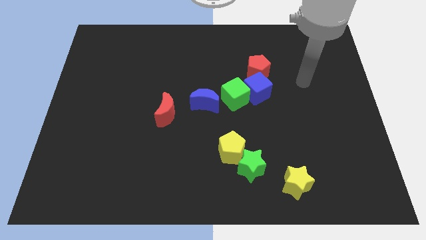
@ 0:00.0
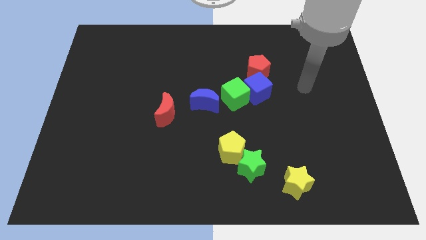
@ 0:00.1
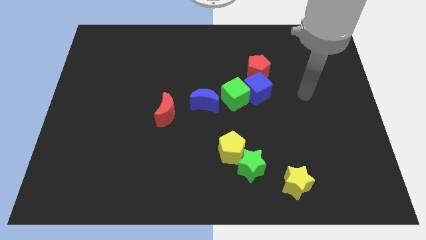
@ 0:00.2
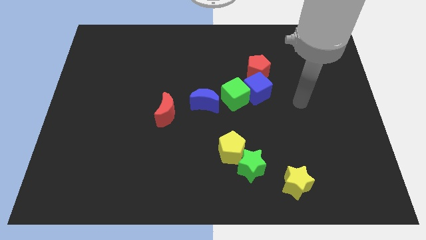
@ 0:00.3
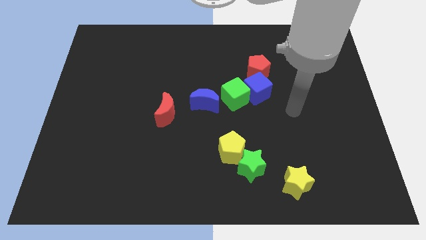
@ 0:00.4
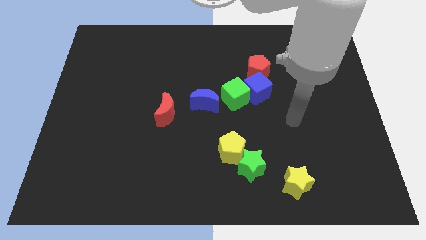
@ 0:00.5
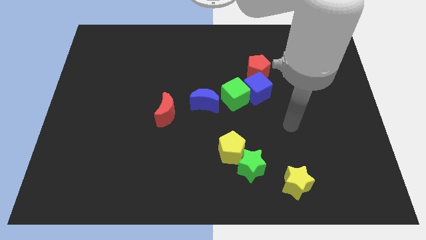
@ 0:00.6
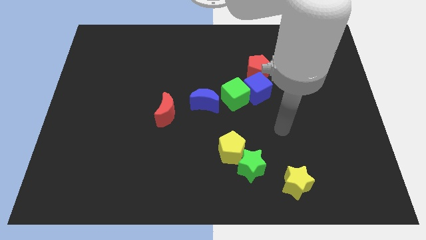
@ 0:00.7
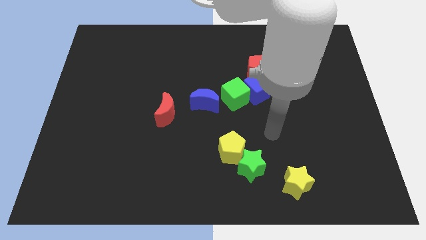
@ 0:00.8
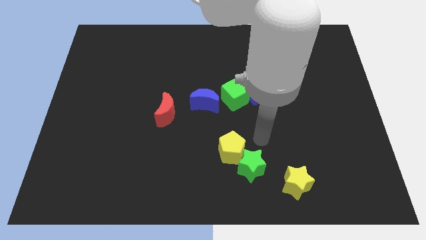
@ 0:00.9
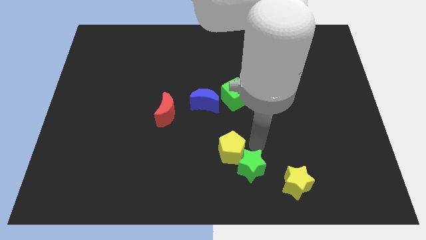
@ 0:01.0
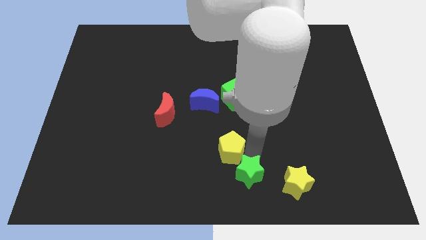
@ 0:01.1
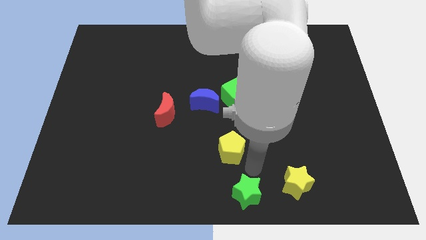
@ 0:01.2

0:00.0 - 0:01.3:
pull the yellow pentagon apart from the green star

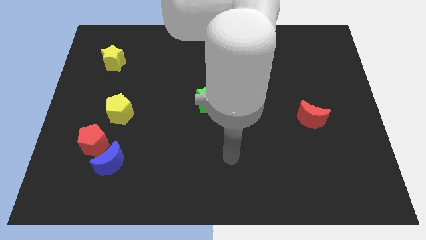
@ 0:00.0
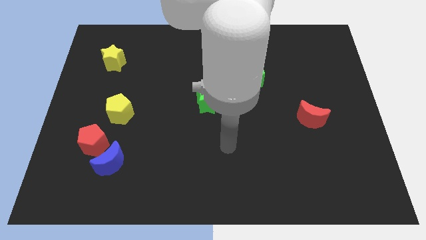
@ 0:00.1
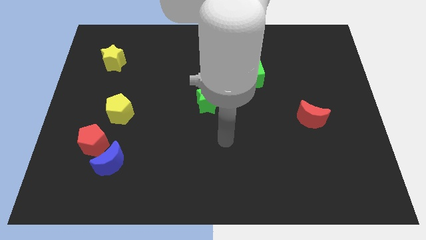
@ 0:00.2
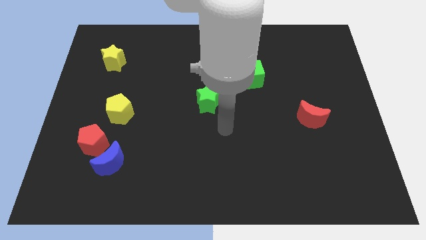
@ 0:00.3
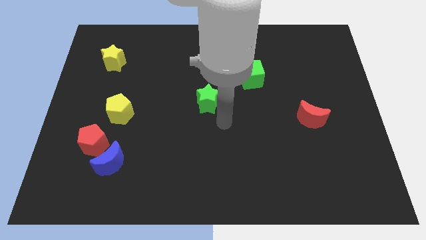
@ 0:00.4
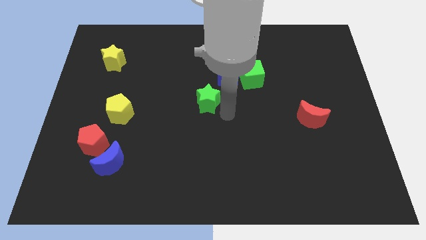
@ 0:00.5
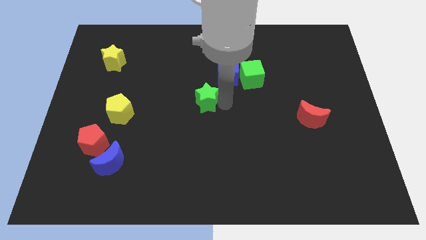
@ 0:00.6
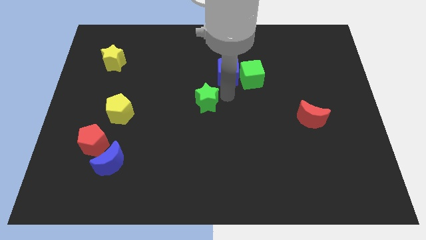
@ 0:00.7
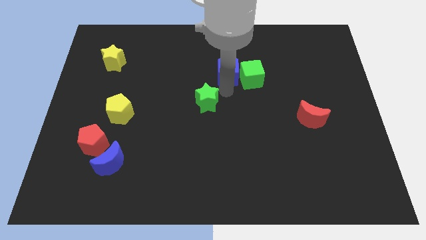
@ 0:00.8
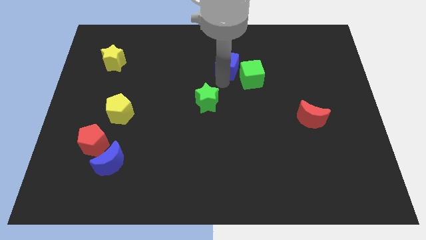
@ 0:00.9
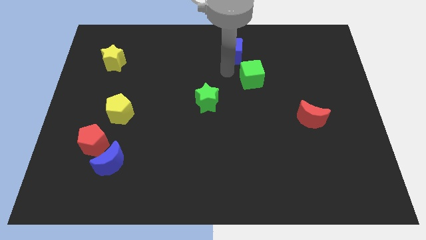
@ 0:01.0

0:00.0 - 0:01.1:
separate the green cube from the blue cube

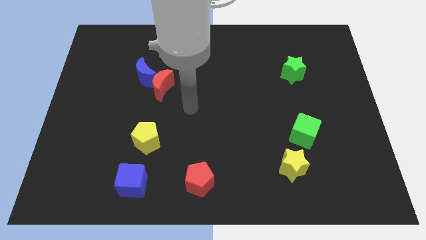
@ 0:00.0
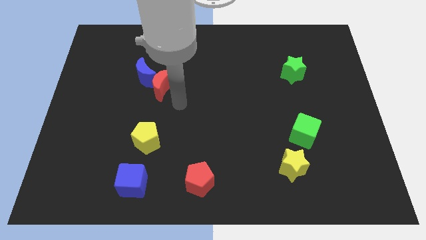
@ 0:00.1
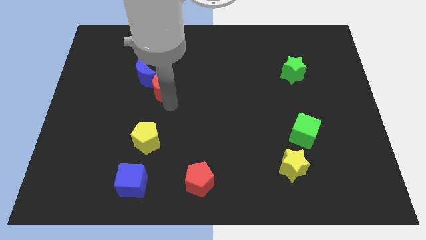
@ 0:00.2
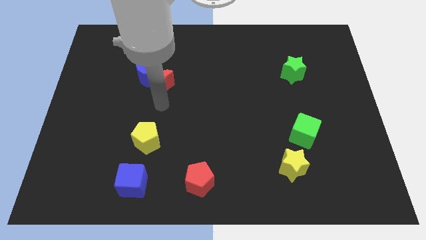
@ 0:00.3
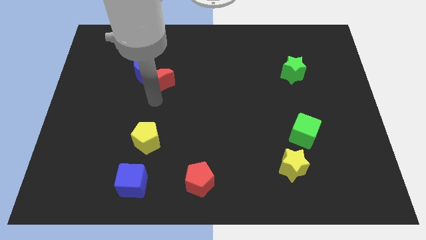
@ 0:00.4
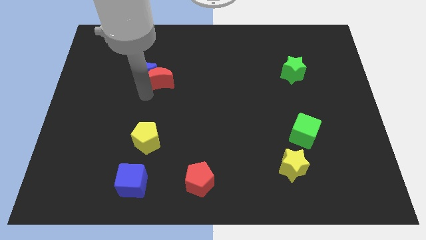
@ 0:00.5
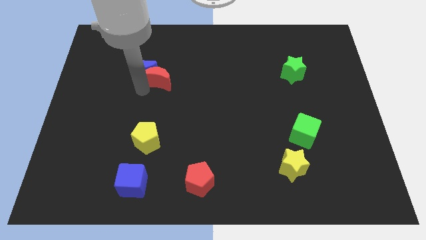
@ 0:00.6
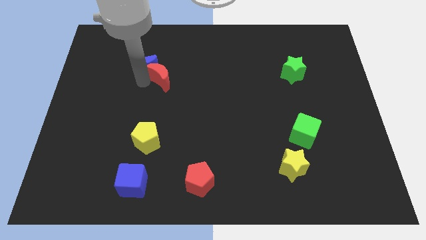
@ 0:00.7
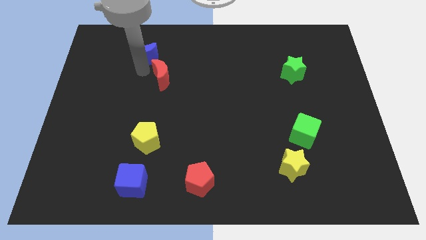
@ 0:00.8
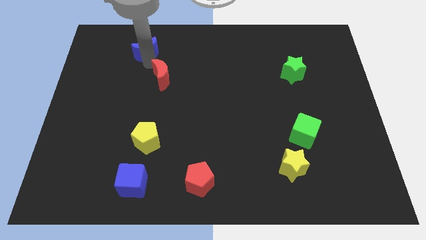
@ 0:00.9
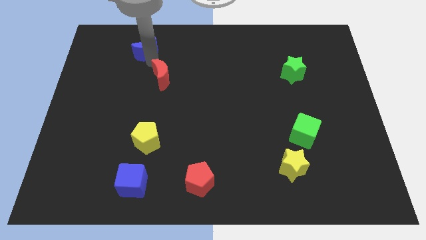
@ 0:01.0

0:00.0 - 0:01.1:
move the red moon away from the blue moon

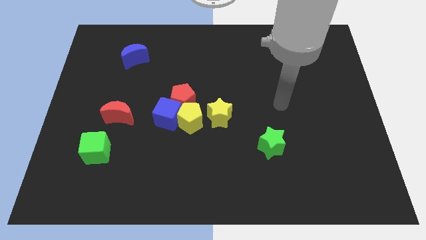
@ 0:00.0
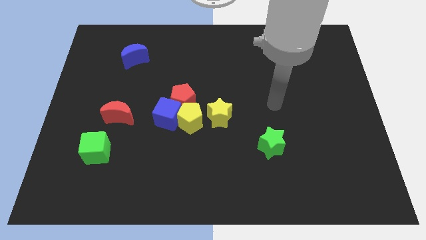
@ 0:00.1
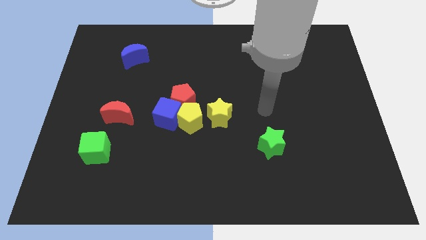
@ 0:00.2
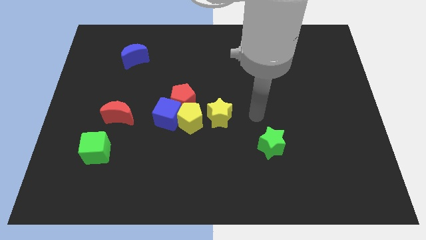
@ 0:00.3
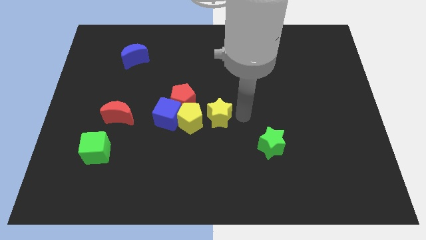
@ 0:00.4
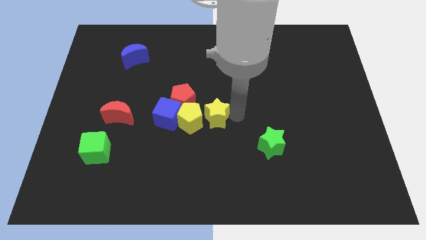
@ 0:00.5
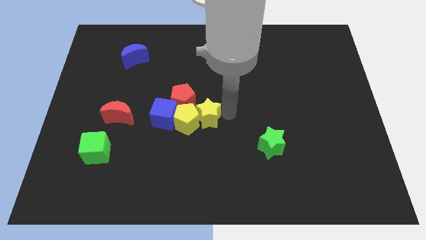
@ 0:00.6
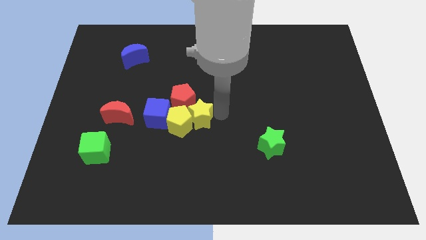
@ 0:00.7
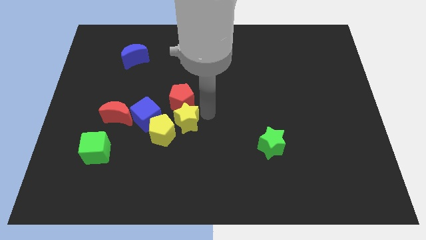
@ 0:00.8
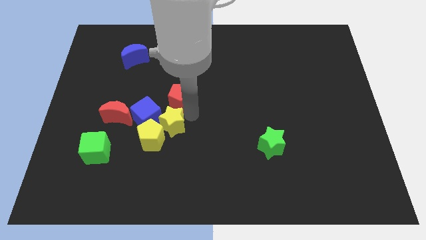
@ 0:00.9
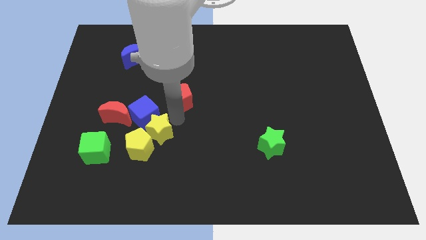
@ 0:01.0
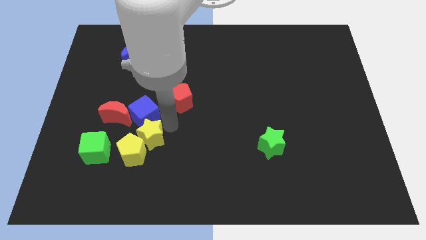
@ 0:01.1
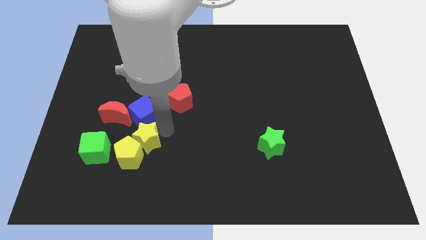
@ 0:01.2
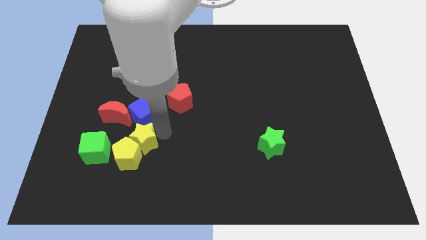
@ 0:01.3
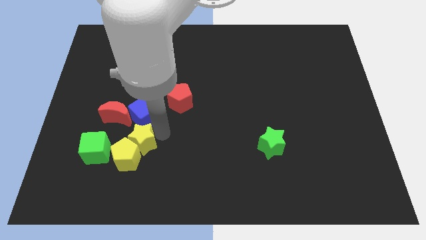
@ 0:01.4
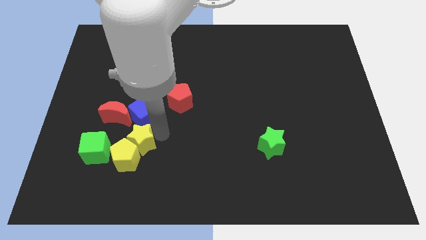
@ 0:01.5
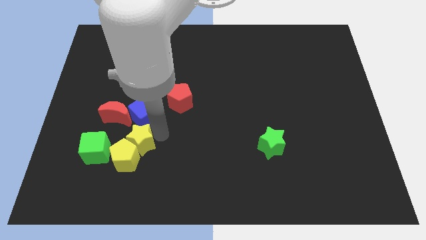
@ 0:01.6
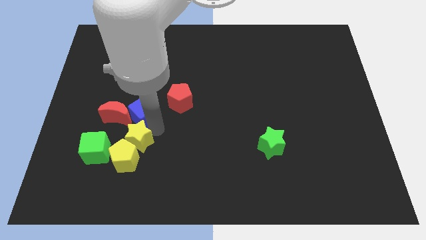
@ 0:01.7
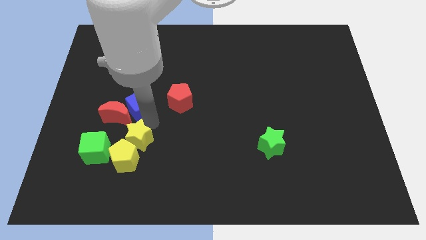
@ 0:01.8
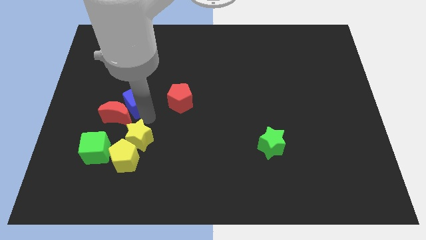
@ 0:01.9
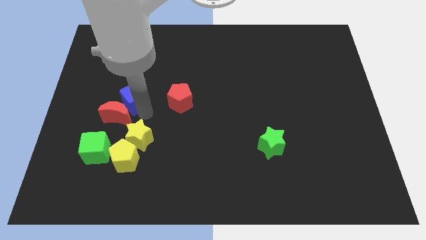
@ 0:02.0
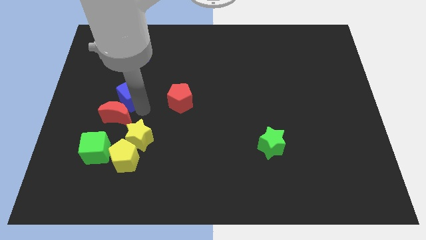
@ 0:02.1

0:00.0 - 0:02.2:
separate the blue cube from the yellow pentagon and red pentagon

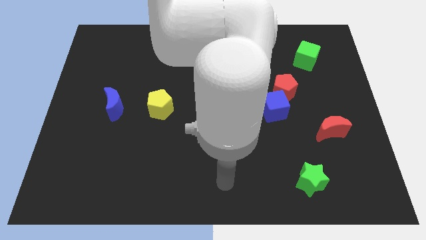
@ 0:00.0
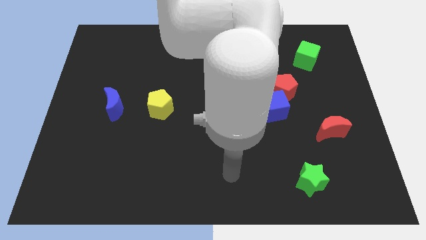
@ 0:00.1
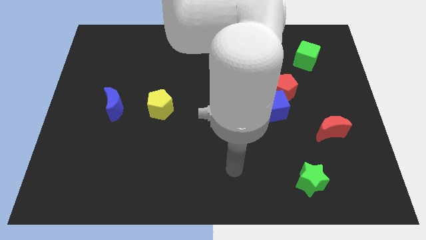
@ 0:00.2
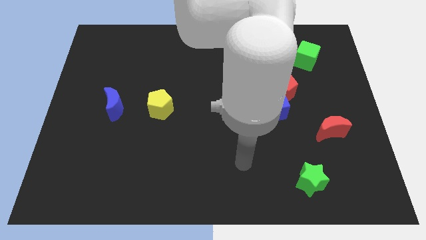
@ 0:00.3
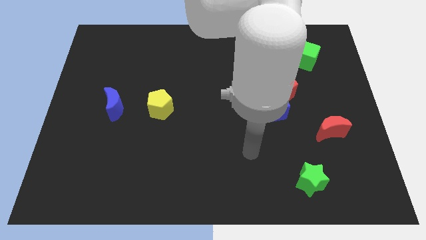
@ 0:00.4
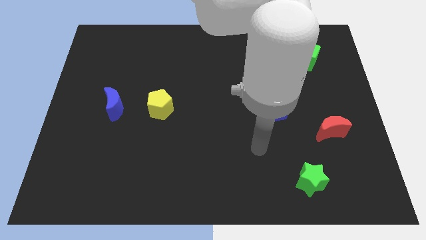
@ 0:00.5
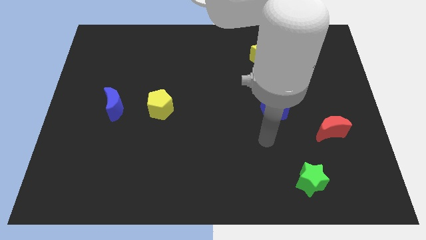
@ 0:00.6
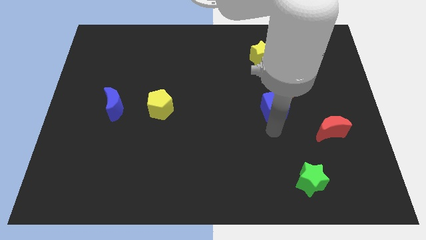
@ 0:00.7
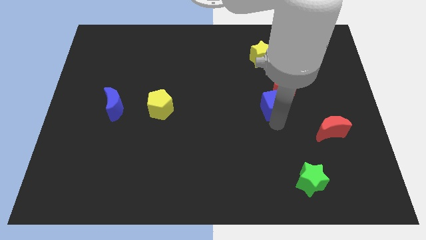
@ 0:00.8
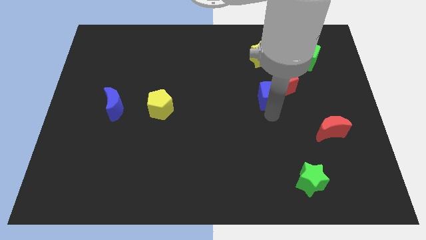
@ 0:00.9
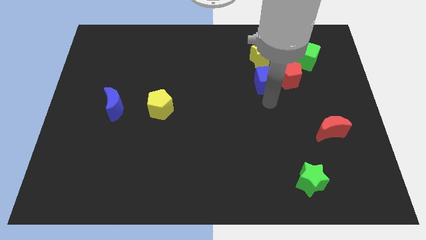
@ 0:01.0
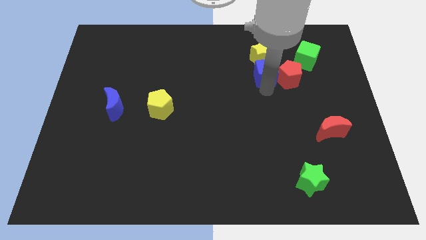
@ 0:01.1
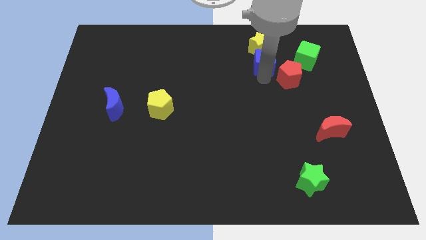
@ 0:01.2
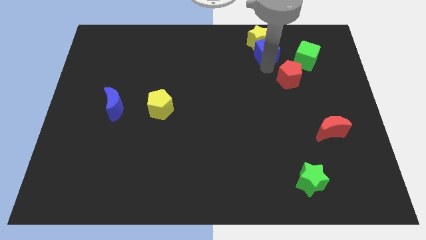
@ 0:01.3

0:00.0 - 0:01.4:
move the red pentagon away from the blue cube

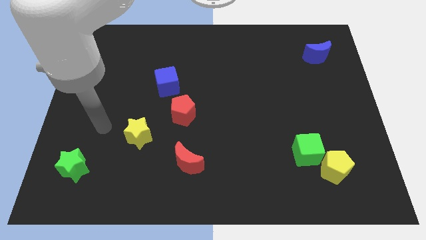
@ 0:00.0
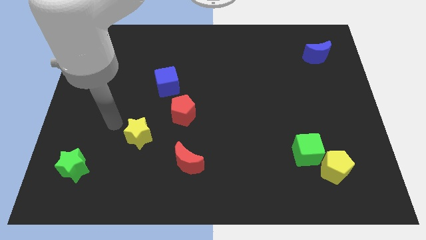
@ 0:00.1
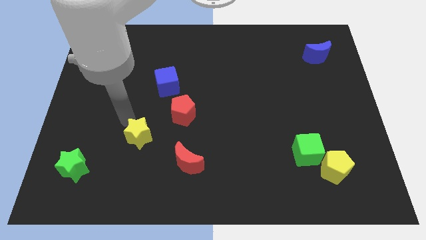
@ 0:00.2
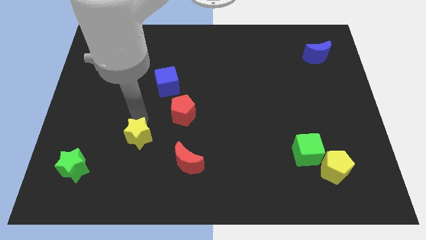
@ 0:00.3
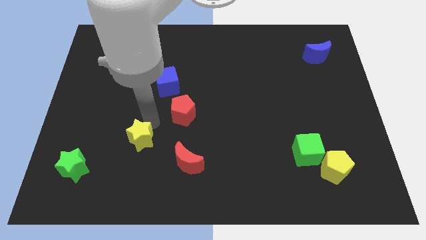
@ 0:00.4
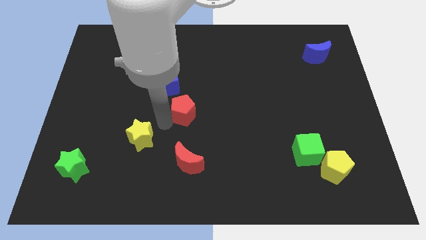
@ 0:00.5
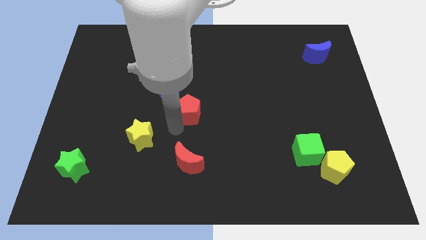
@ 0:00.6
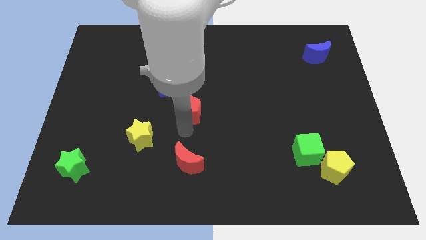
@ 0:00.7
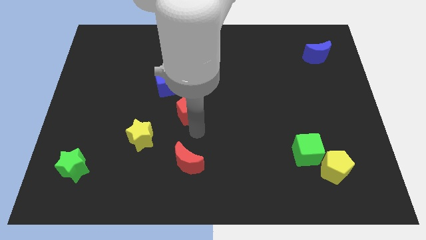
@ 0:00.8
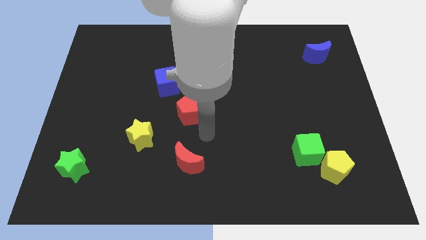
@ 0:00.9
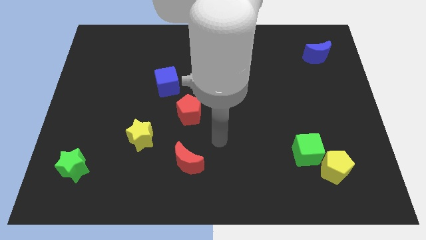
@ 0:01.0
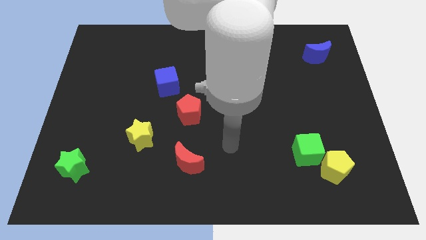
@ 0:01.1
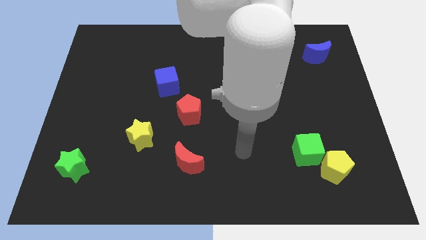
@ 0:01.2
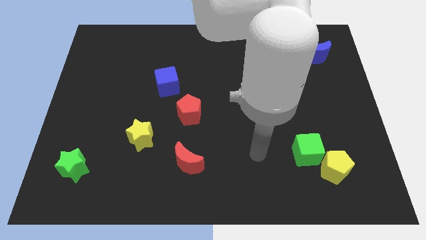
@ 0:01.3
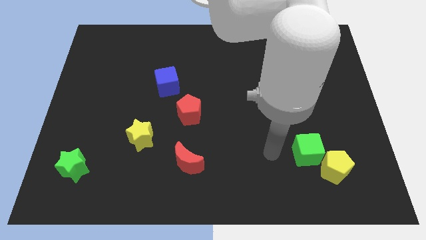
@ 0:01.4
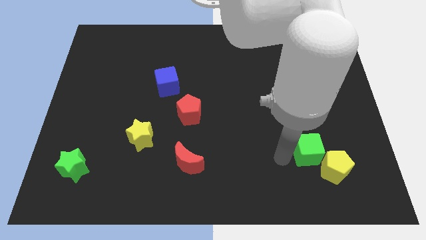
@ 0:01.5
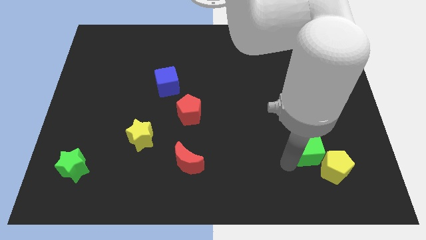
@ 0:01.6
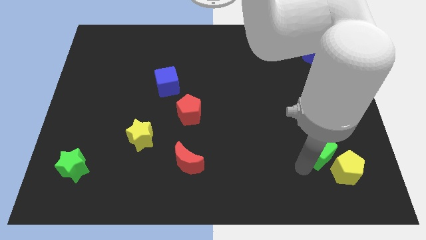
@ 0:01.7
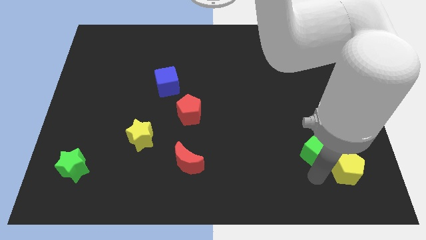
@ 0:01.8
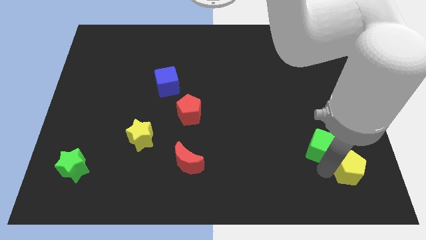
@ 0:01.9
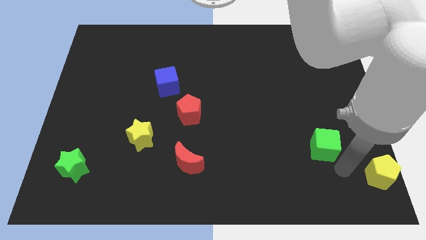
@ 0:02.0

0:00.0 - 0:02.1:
pull the green cube apart from the yellow pentagon

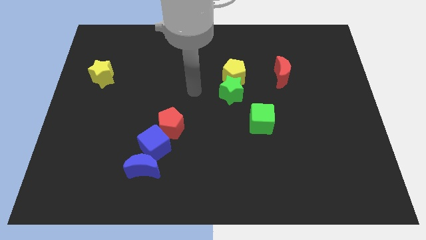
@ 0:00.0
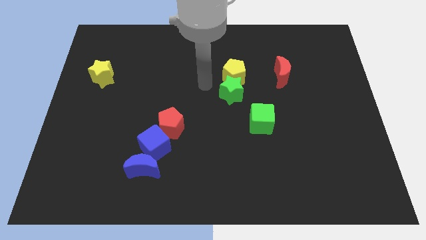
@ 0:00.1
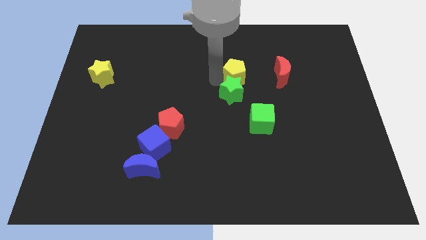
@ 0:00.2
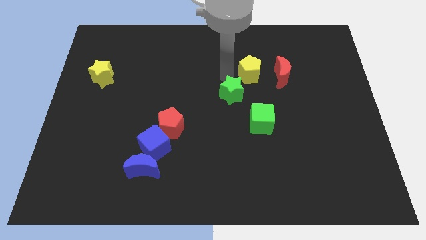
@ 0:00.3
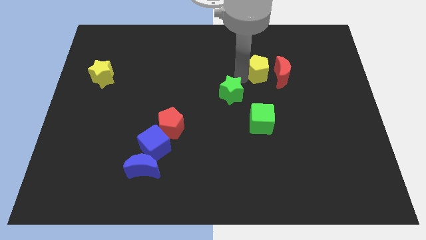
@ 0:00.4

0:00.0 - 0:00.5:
separate the green star from the yellow pentagon
